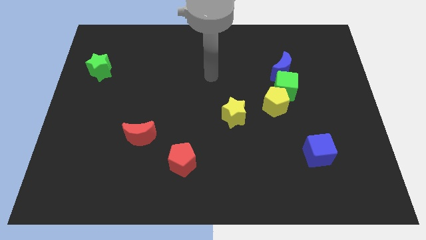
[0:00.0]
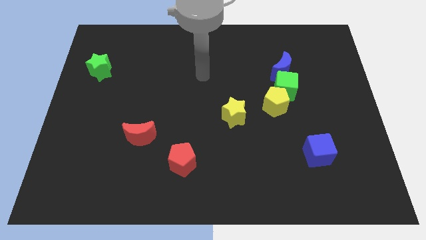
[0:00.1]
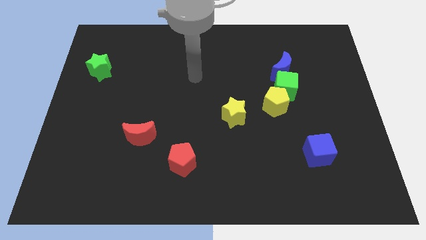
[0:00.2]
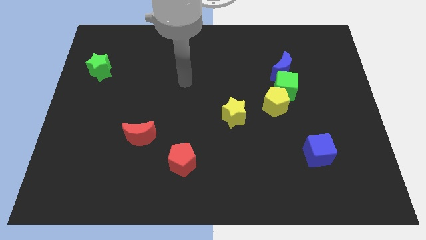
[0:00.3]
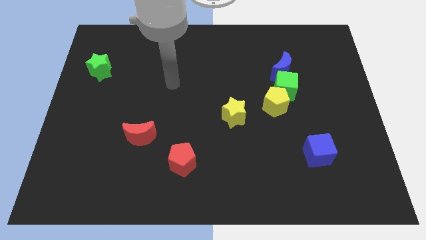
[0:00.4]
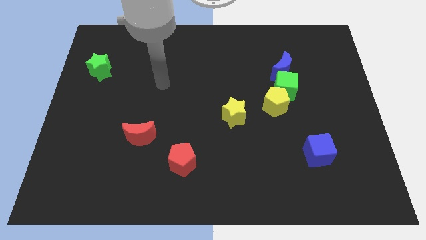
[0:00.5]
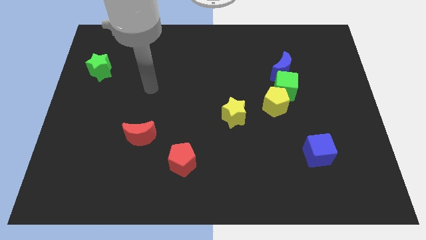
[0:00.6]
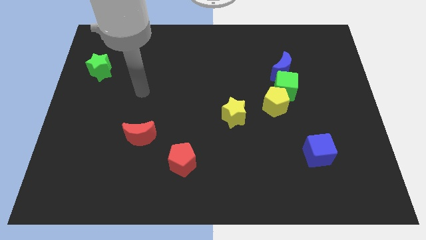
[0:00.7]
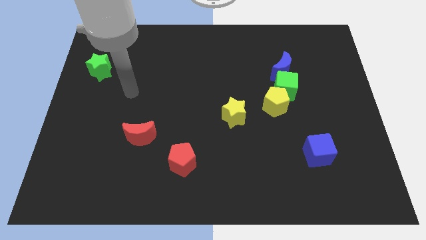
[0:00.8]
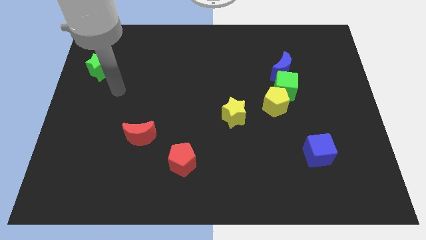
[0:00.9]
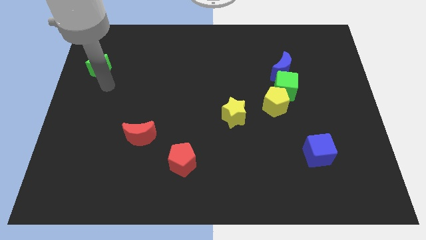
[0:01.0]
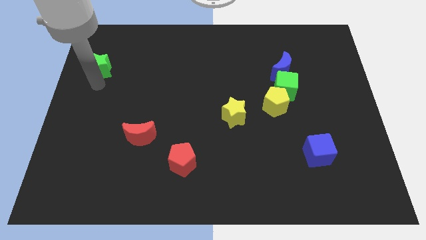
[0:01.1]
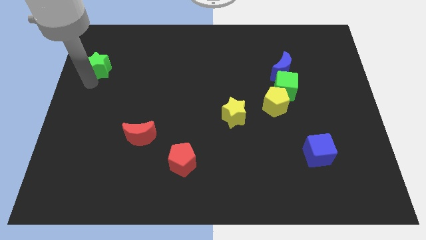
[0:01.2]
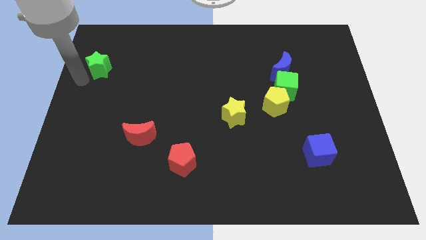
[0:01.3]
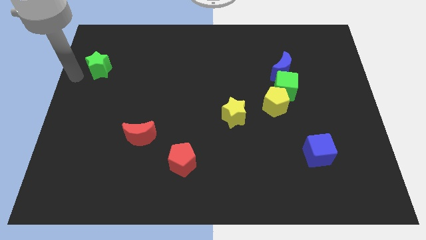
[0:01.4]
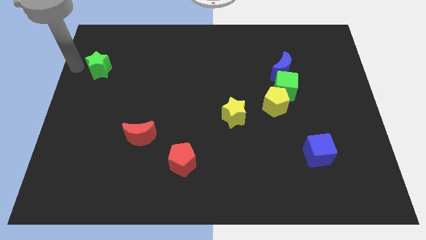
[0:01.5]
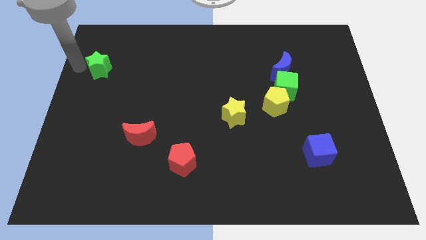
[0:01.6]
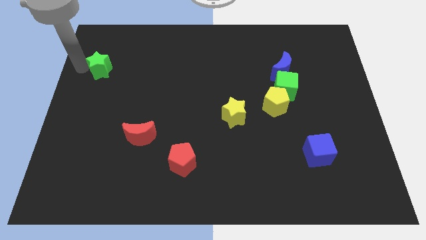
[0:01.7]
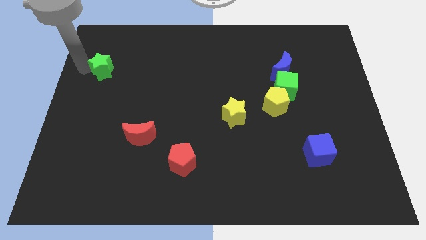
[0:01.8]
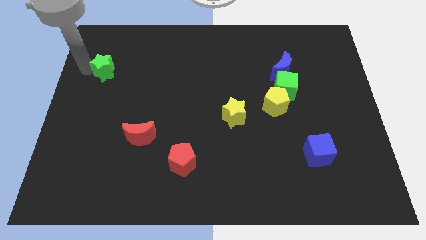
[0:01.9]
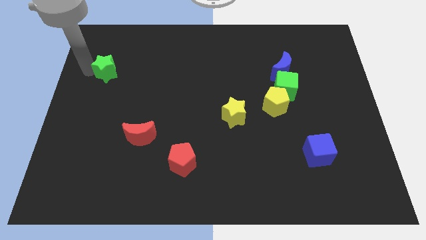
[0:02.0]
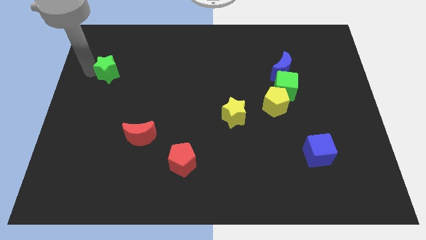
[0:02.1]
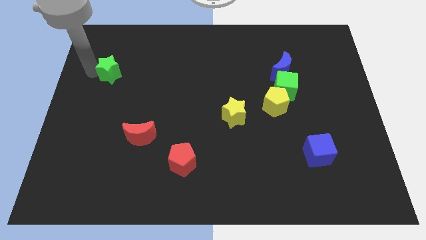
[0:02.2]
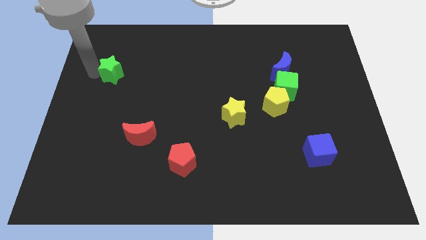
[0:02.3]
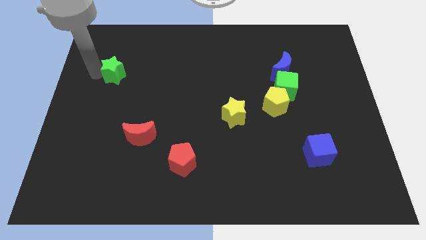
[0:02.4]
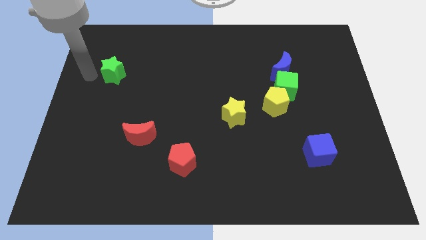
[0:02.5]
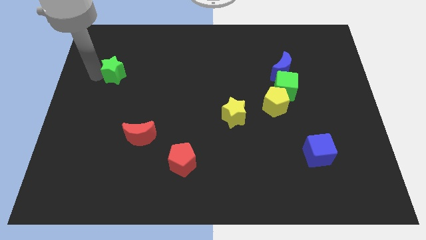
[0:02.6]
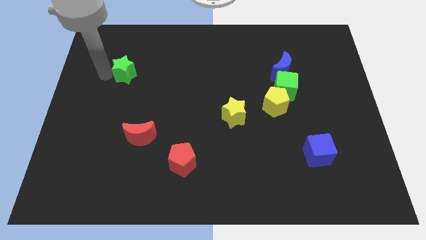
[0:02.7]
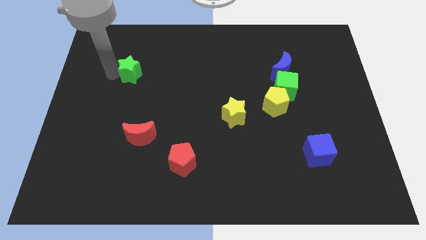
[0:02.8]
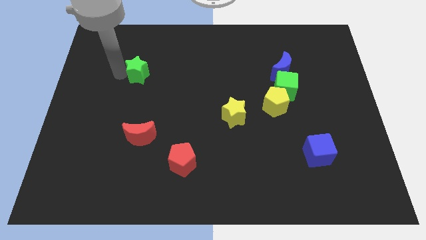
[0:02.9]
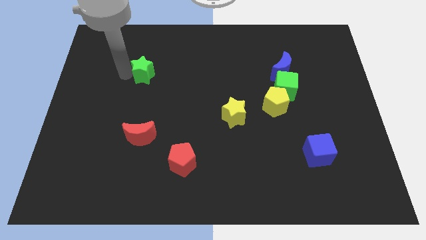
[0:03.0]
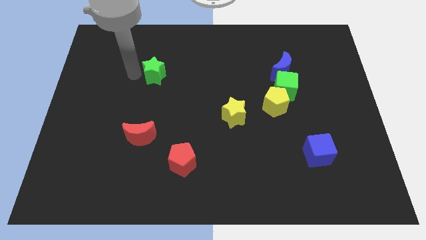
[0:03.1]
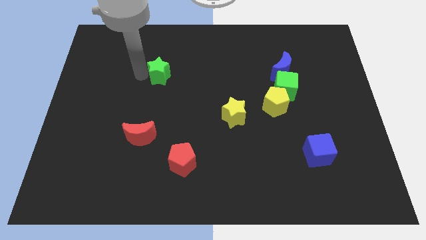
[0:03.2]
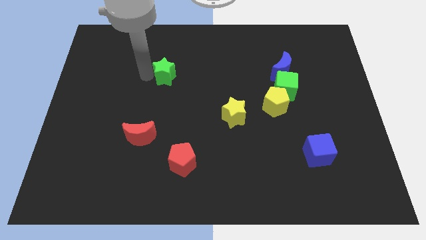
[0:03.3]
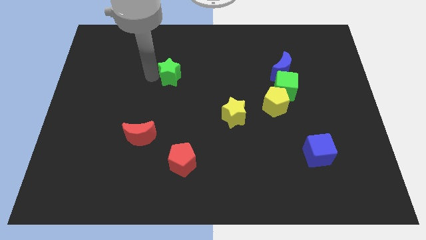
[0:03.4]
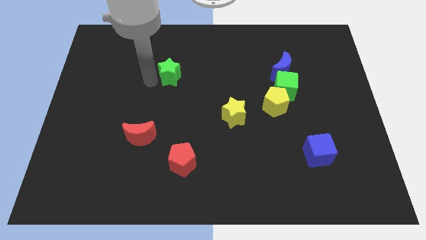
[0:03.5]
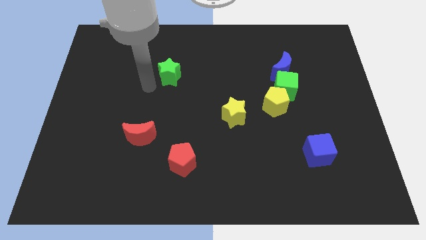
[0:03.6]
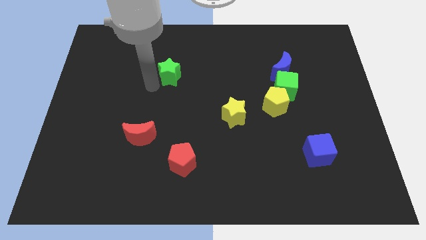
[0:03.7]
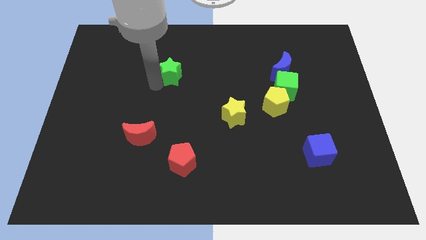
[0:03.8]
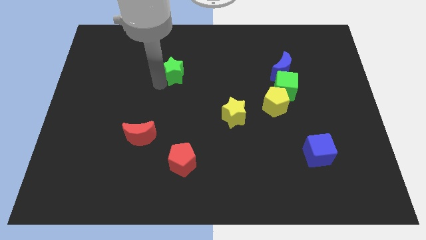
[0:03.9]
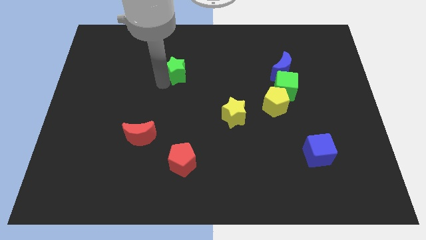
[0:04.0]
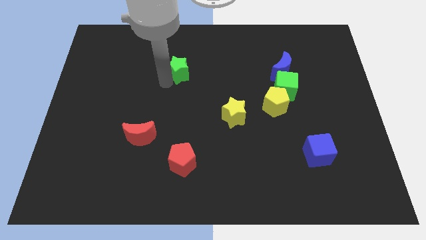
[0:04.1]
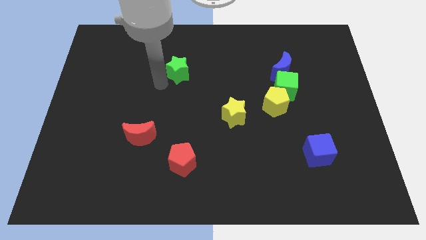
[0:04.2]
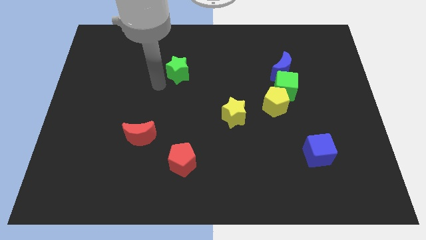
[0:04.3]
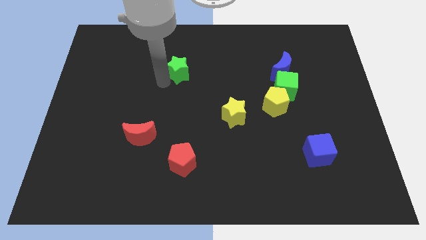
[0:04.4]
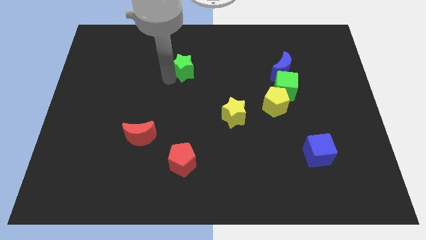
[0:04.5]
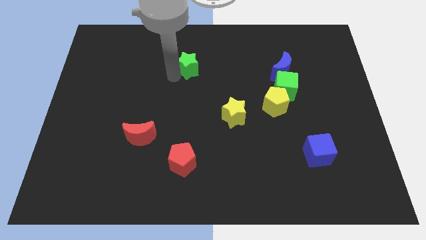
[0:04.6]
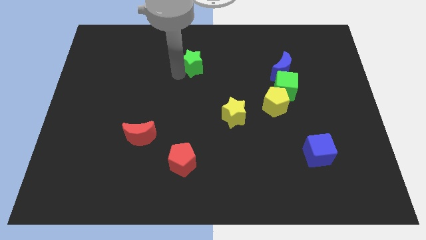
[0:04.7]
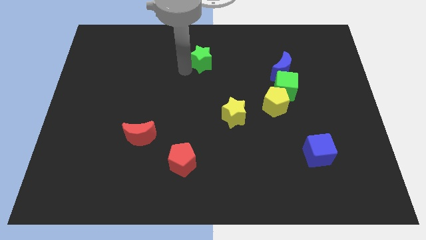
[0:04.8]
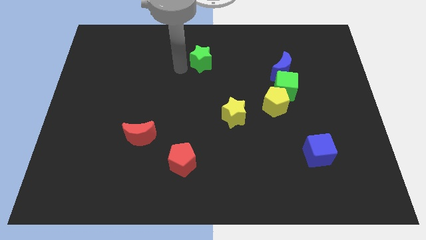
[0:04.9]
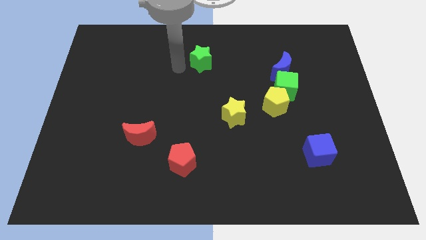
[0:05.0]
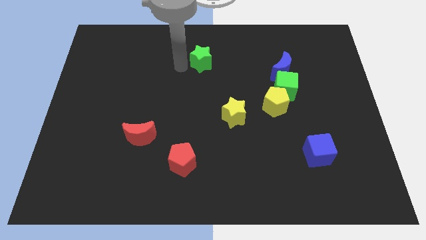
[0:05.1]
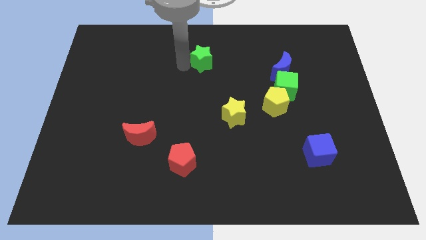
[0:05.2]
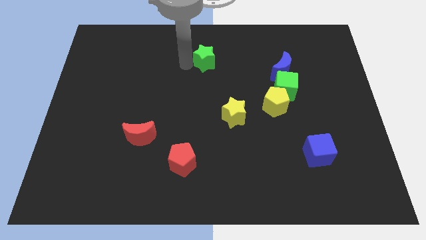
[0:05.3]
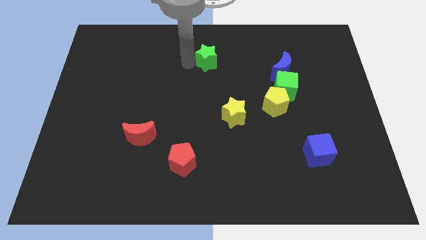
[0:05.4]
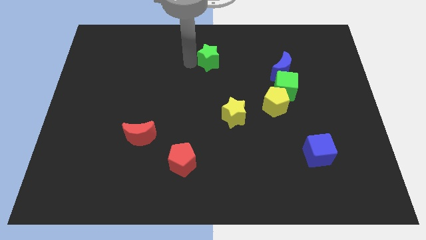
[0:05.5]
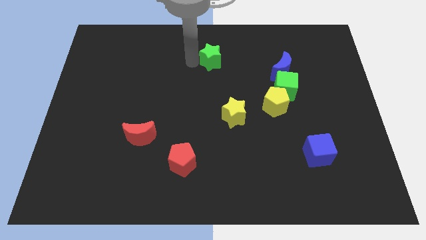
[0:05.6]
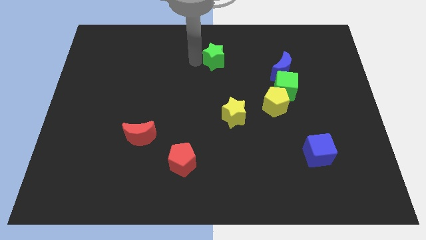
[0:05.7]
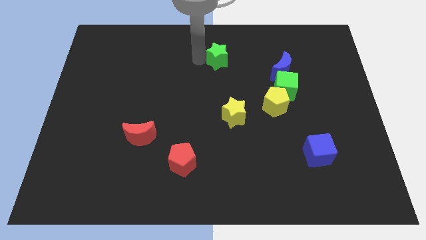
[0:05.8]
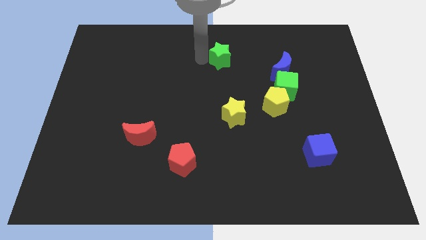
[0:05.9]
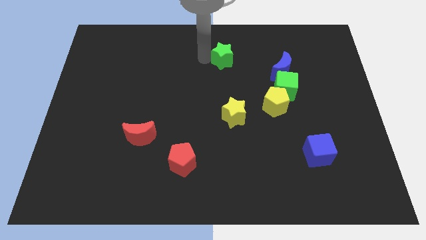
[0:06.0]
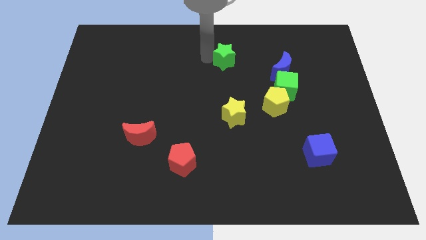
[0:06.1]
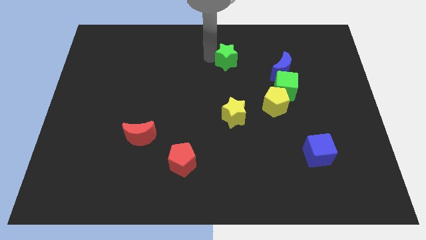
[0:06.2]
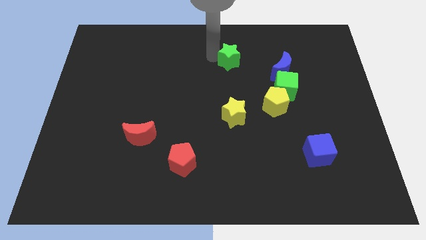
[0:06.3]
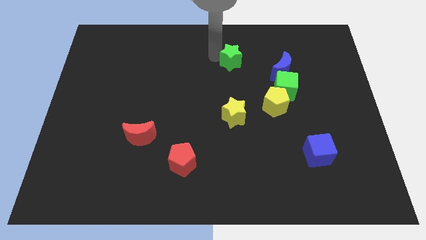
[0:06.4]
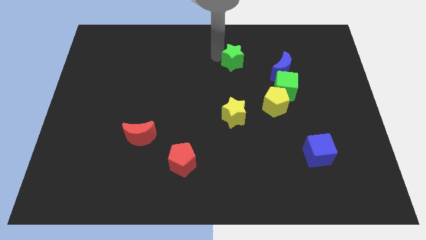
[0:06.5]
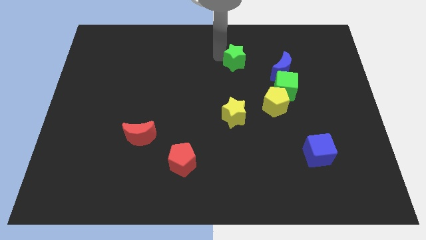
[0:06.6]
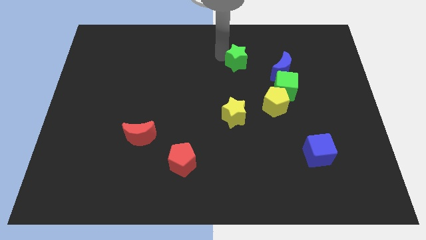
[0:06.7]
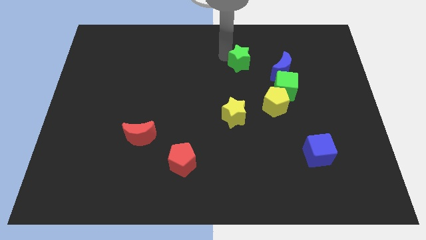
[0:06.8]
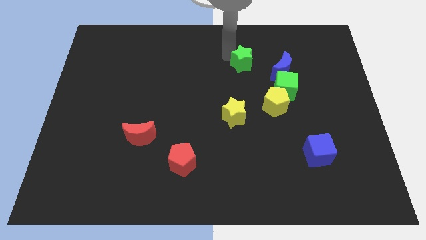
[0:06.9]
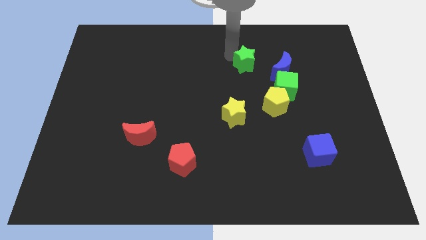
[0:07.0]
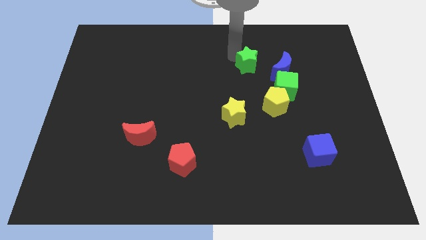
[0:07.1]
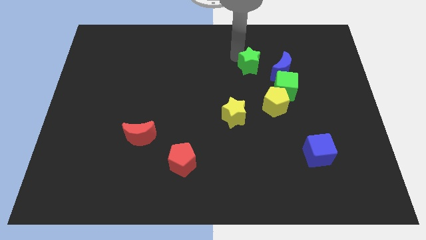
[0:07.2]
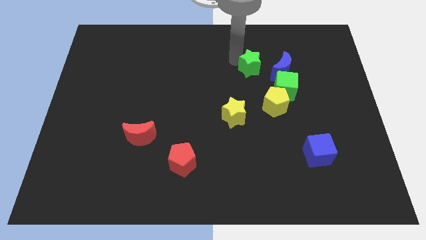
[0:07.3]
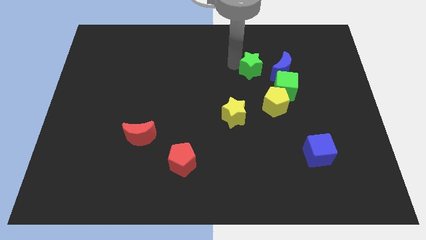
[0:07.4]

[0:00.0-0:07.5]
put the green star to the top of the yellow pentagon
